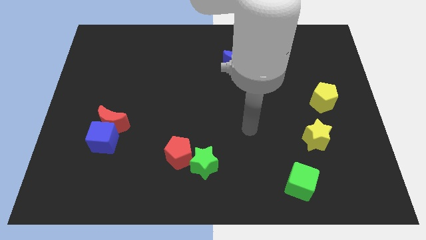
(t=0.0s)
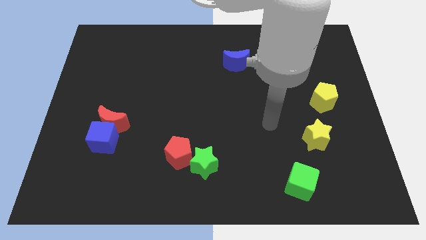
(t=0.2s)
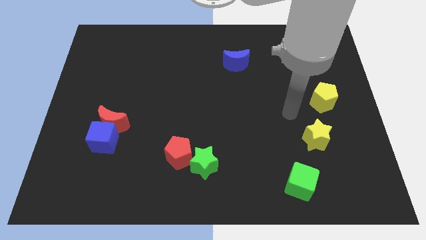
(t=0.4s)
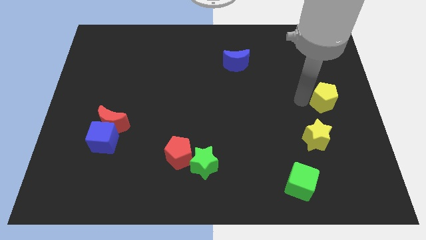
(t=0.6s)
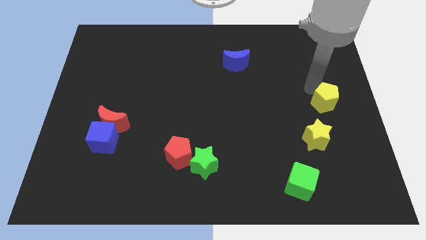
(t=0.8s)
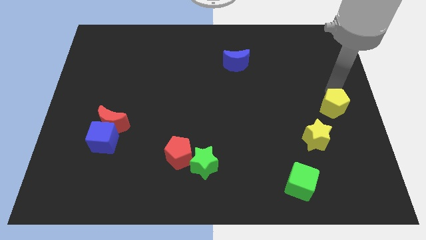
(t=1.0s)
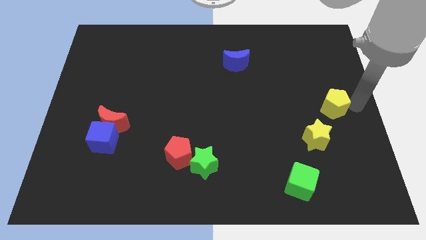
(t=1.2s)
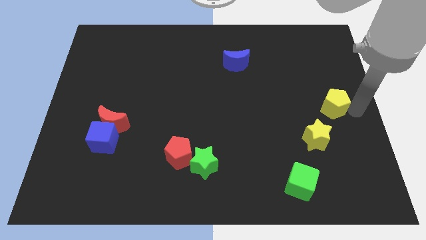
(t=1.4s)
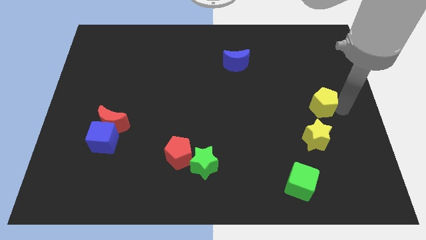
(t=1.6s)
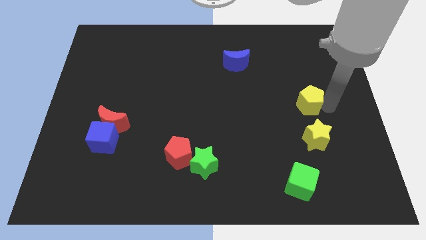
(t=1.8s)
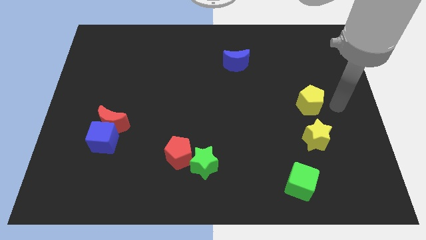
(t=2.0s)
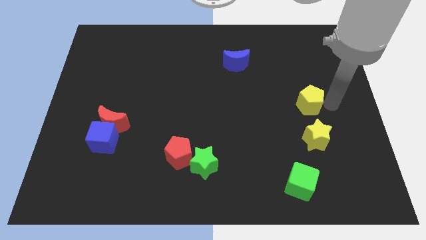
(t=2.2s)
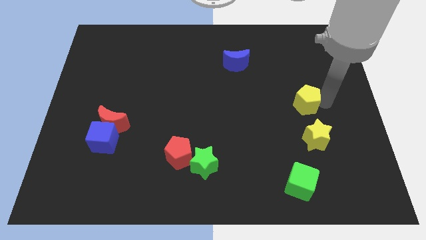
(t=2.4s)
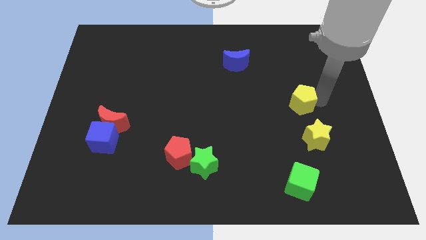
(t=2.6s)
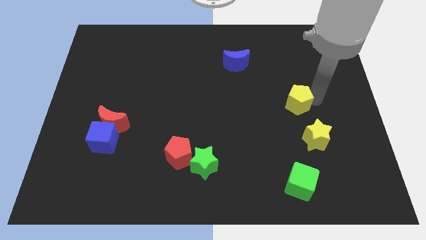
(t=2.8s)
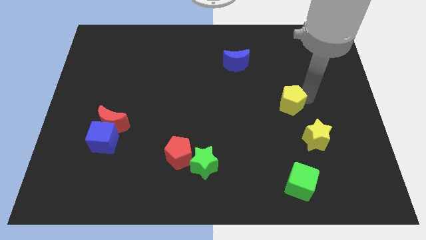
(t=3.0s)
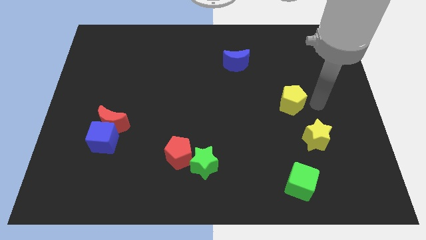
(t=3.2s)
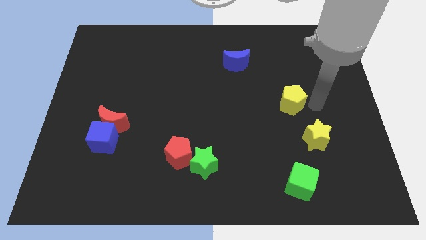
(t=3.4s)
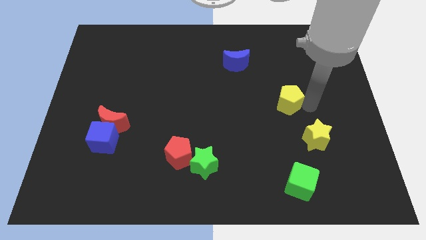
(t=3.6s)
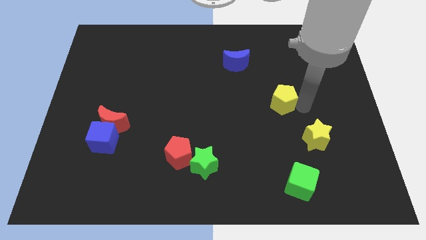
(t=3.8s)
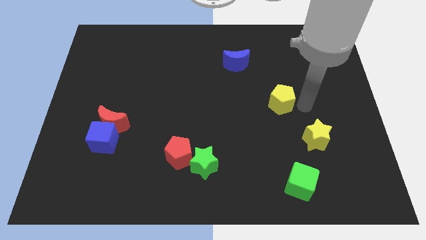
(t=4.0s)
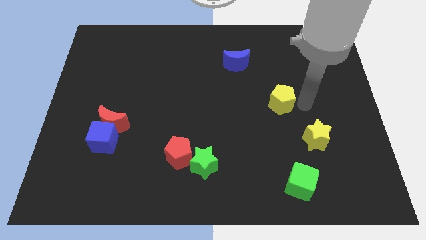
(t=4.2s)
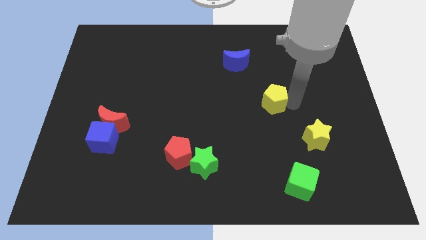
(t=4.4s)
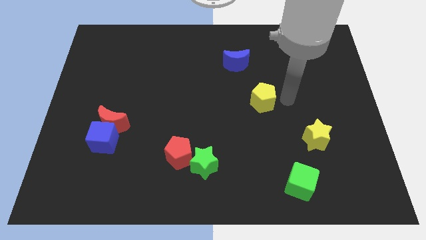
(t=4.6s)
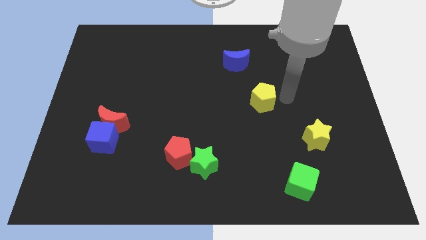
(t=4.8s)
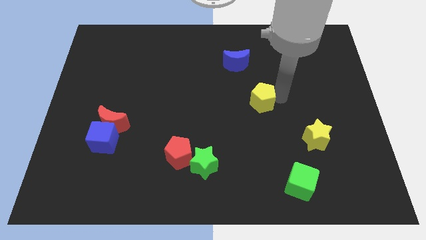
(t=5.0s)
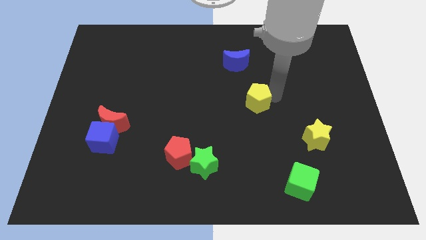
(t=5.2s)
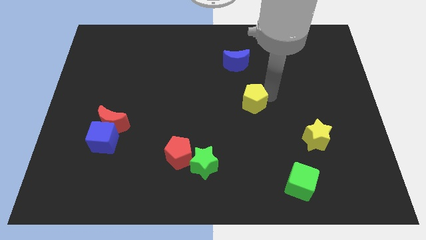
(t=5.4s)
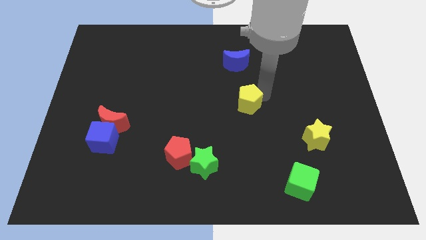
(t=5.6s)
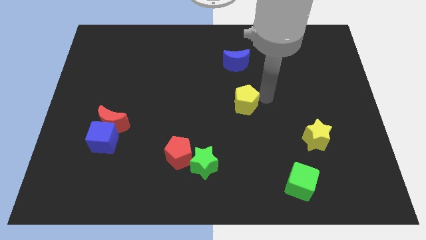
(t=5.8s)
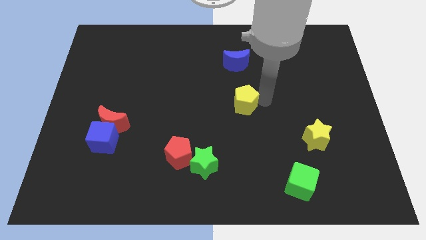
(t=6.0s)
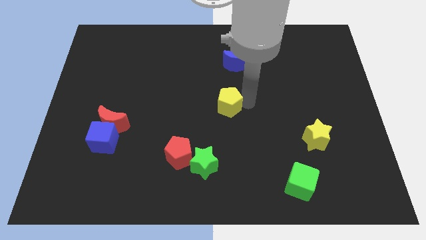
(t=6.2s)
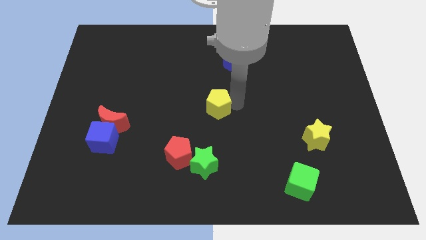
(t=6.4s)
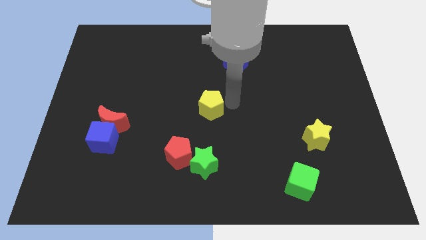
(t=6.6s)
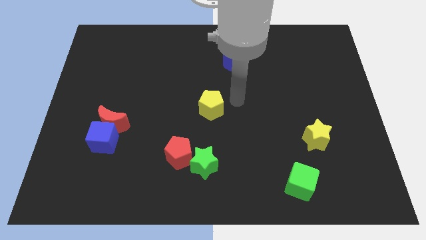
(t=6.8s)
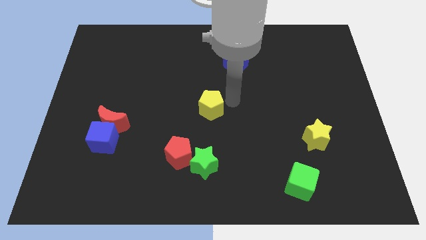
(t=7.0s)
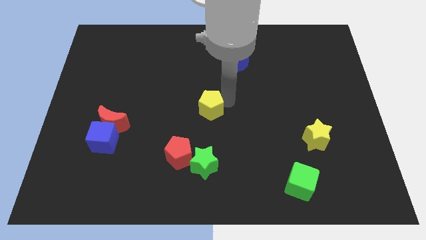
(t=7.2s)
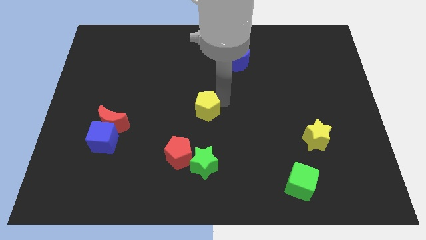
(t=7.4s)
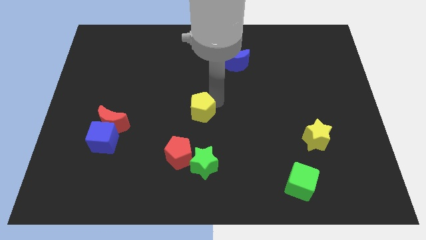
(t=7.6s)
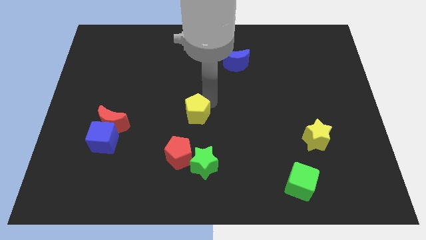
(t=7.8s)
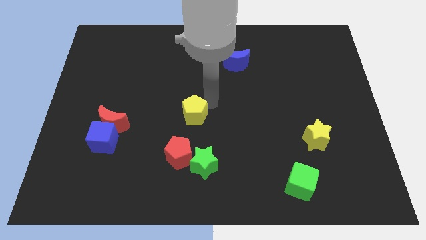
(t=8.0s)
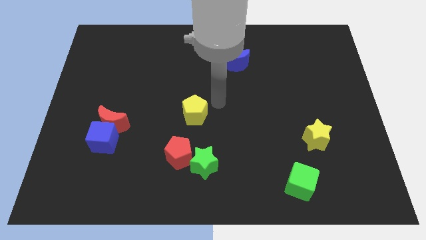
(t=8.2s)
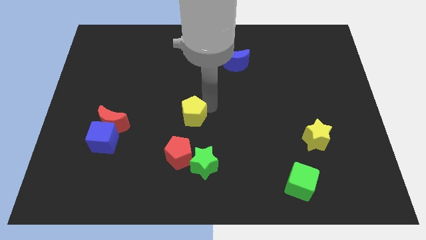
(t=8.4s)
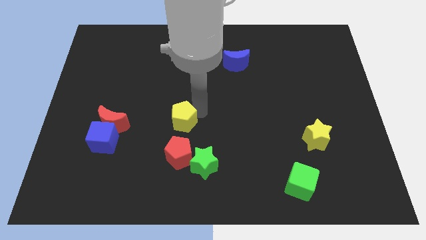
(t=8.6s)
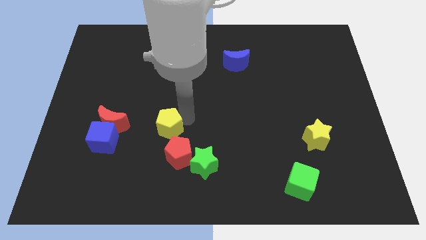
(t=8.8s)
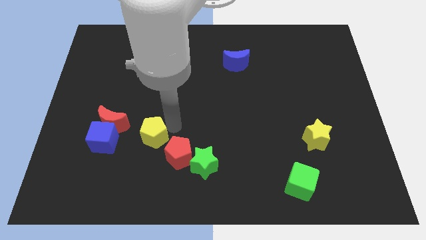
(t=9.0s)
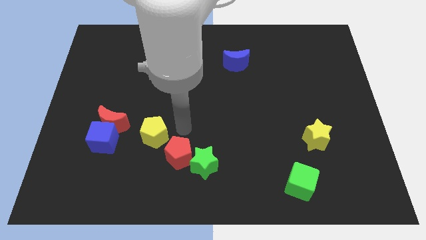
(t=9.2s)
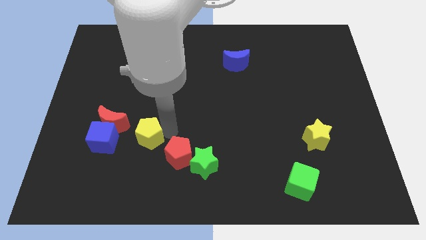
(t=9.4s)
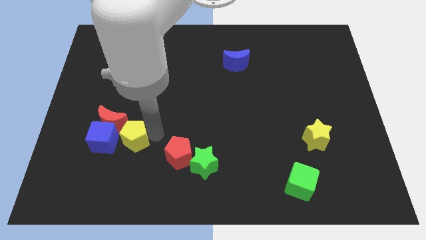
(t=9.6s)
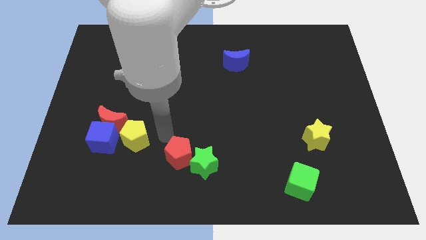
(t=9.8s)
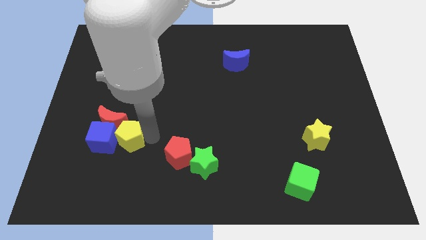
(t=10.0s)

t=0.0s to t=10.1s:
slide the yellow pentagon to the blue cube

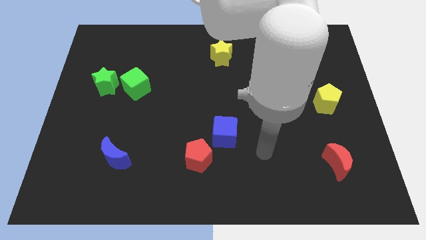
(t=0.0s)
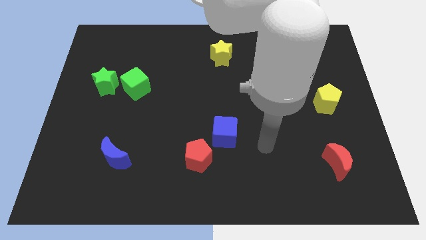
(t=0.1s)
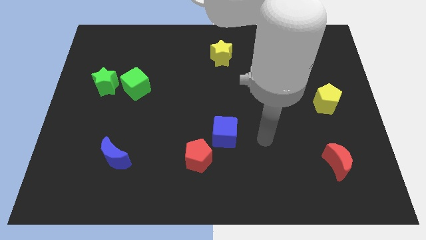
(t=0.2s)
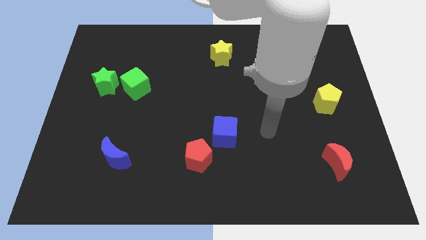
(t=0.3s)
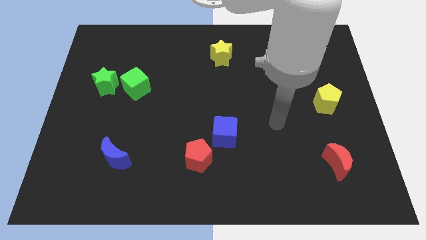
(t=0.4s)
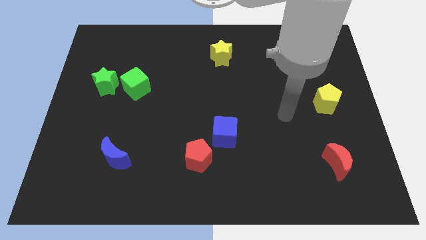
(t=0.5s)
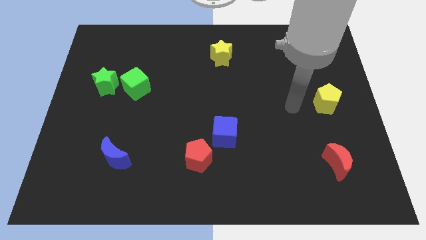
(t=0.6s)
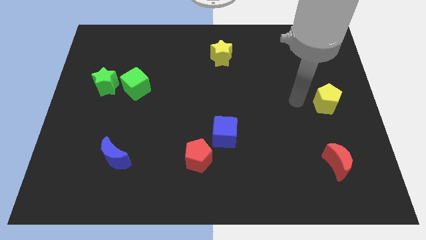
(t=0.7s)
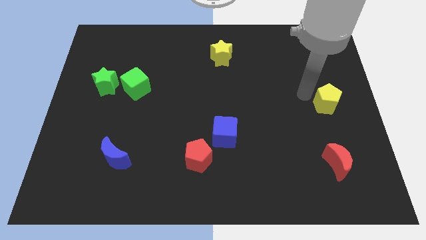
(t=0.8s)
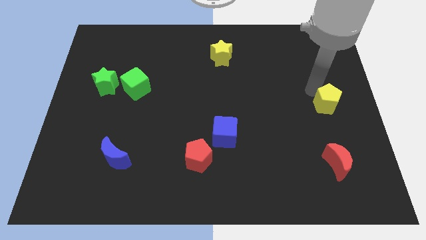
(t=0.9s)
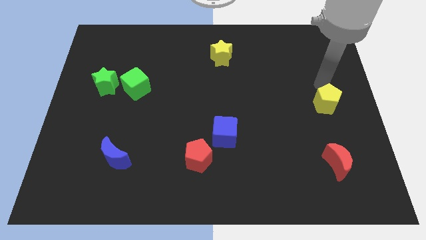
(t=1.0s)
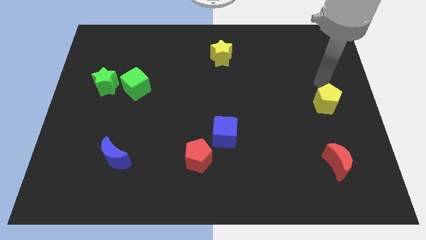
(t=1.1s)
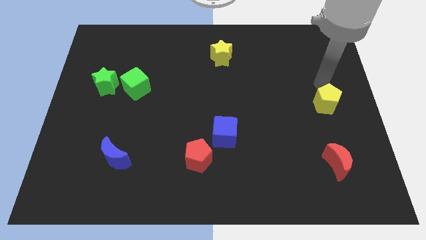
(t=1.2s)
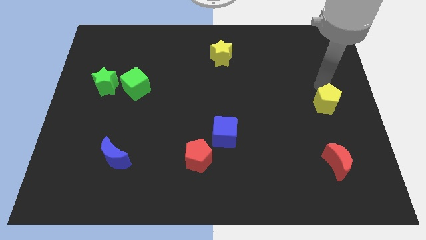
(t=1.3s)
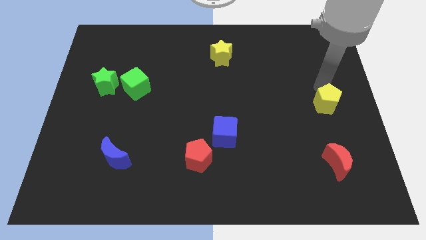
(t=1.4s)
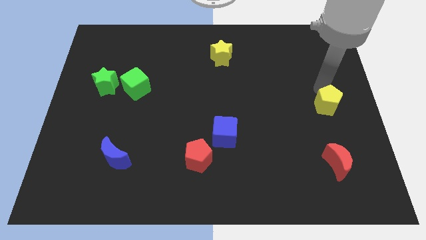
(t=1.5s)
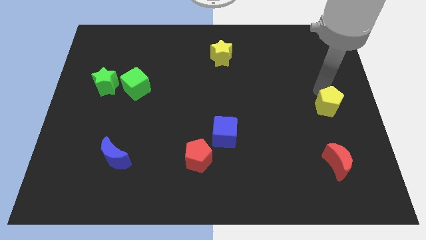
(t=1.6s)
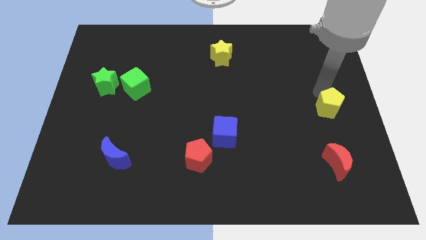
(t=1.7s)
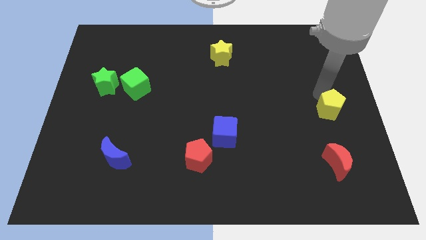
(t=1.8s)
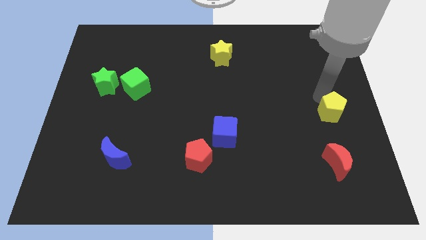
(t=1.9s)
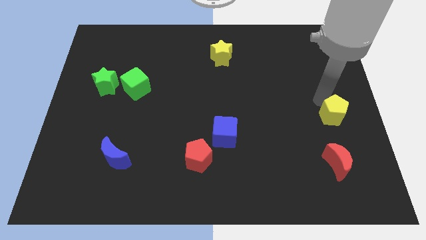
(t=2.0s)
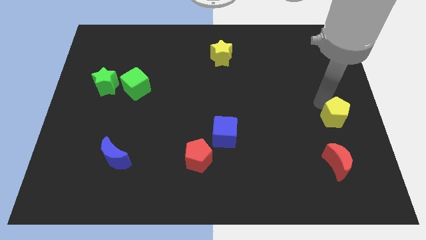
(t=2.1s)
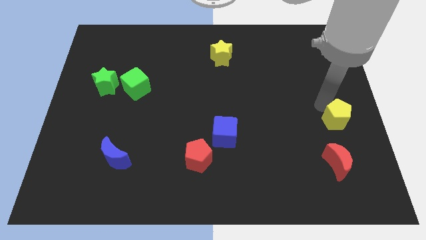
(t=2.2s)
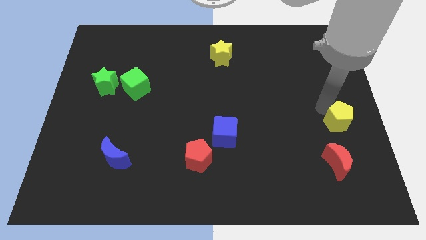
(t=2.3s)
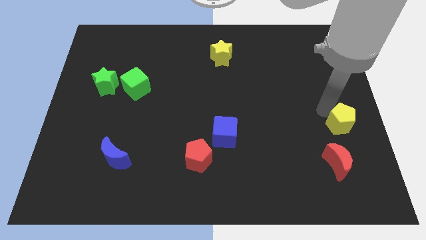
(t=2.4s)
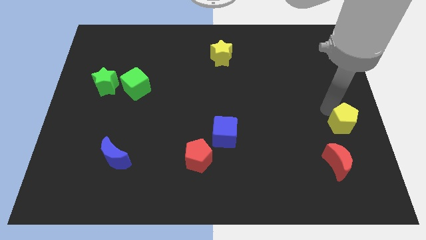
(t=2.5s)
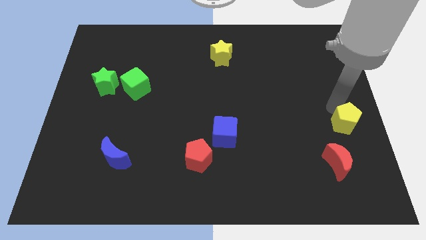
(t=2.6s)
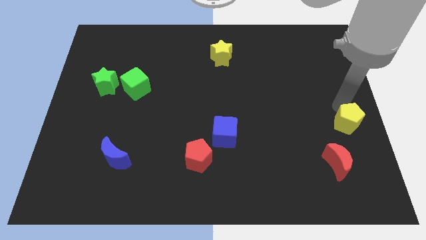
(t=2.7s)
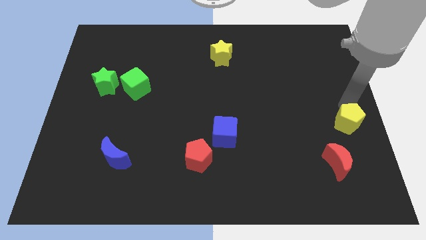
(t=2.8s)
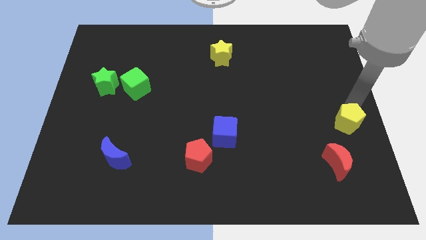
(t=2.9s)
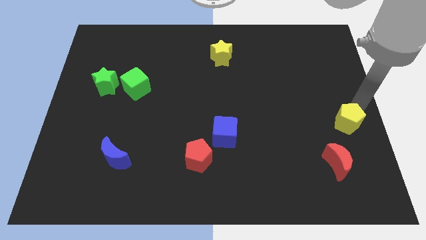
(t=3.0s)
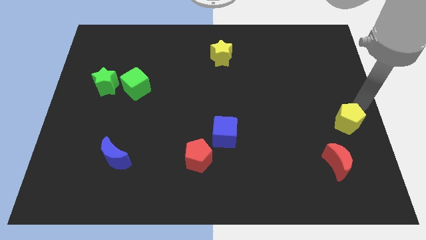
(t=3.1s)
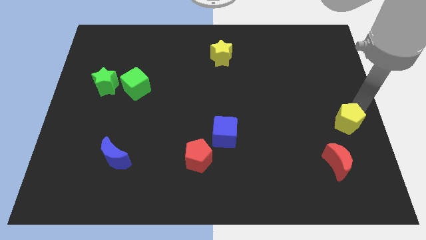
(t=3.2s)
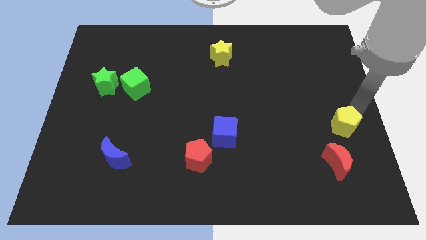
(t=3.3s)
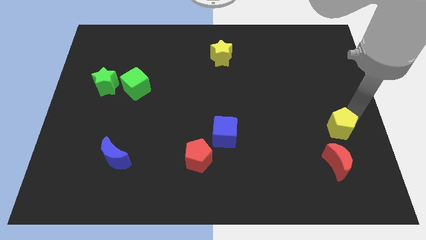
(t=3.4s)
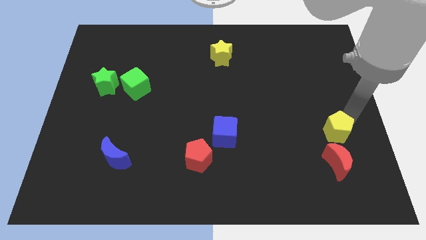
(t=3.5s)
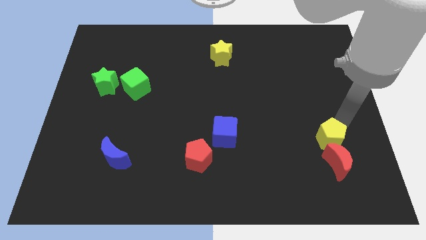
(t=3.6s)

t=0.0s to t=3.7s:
push the yellow pentagon next to the red moon
